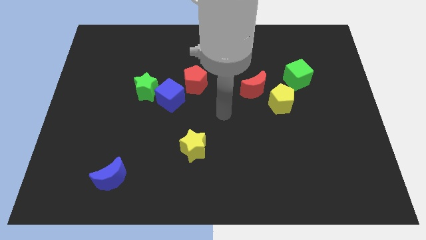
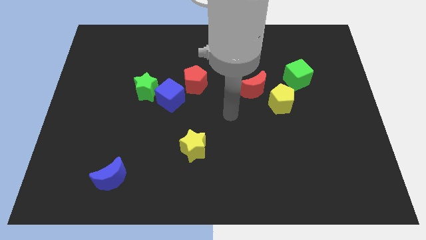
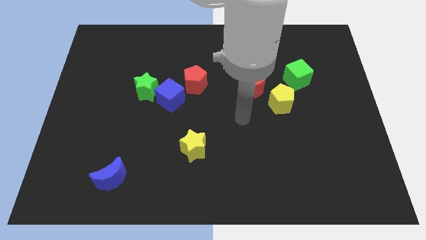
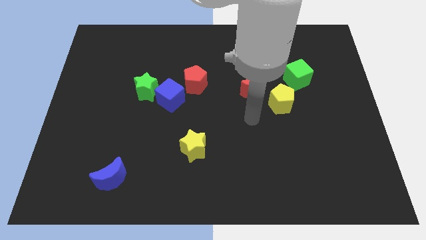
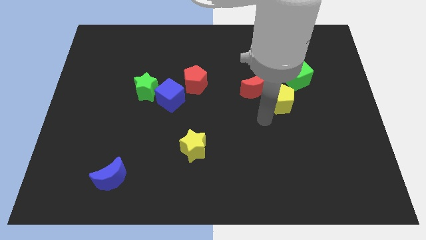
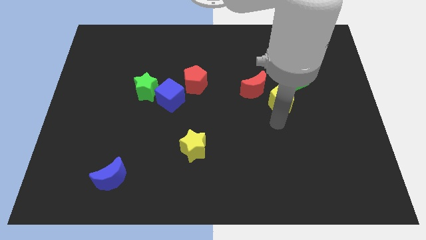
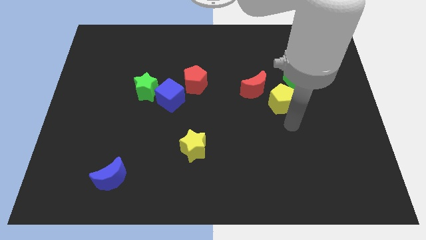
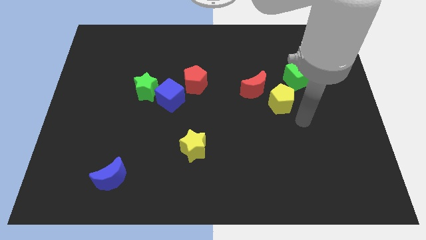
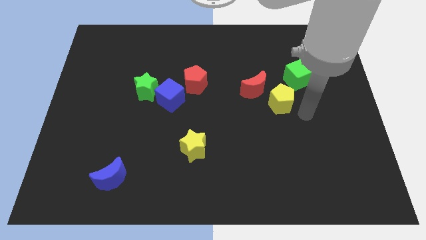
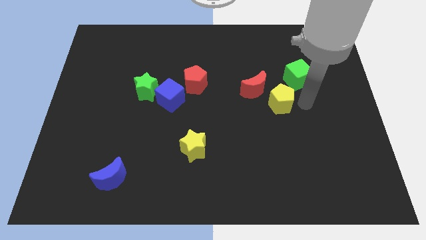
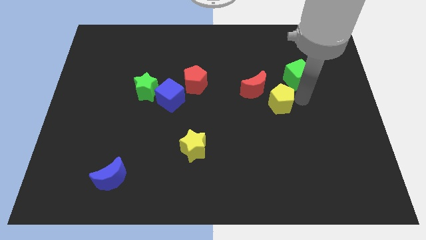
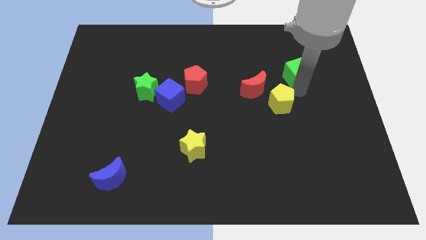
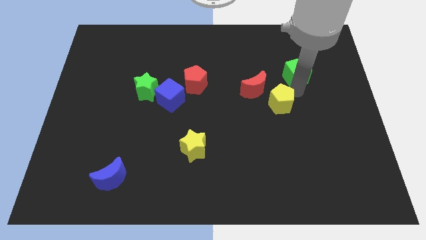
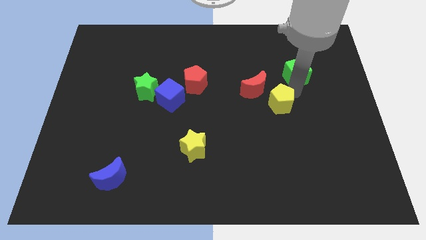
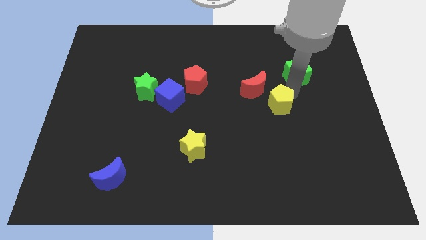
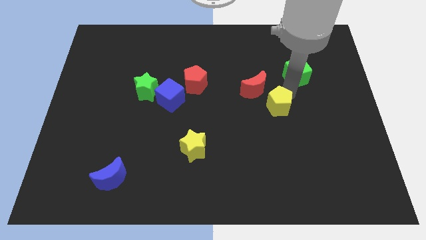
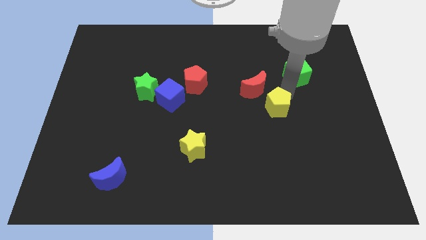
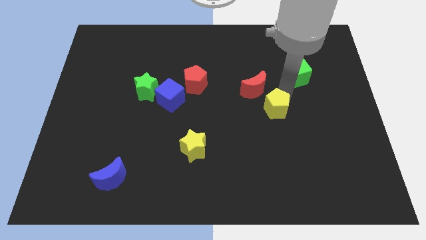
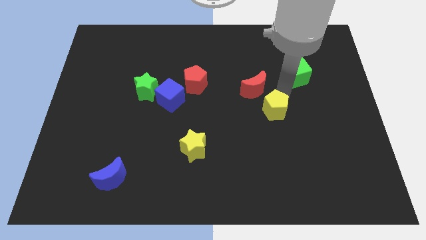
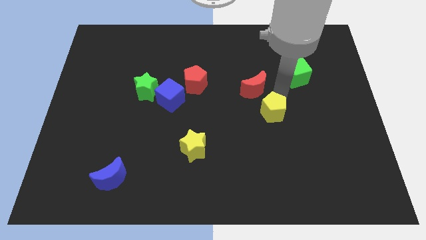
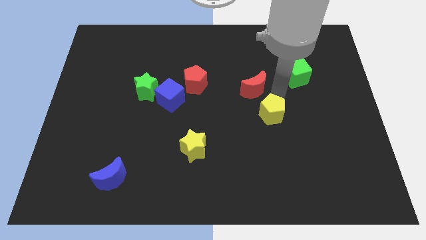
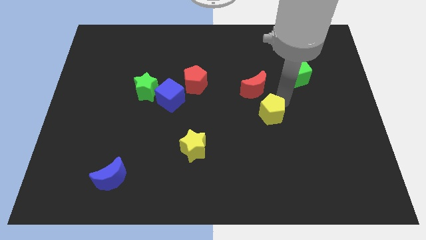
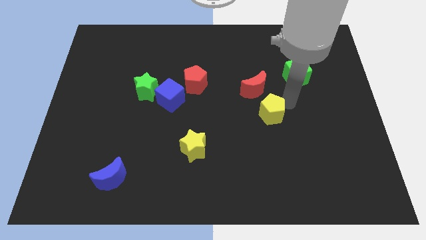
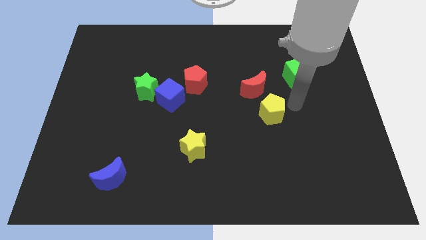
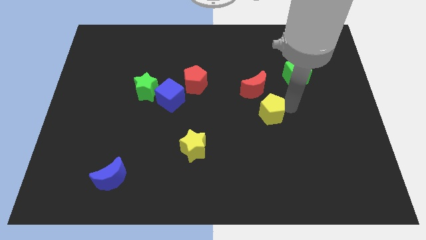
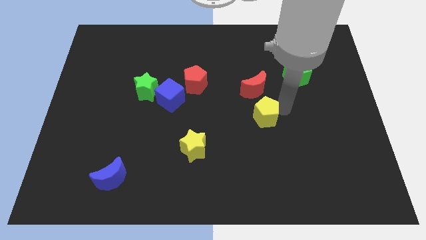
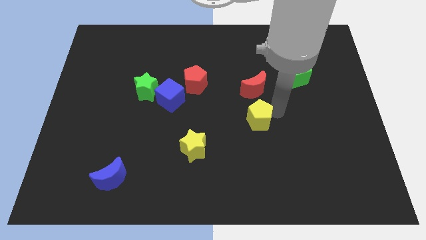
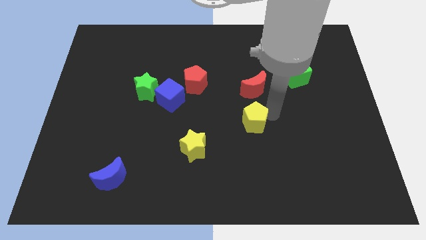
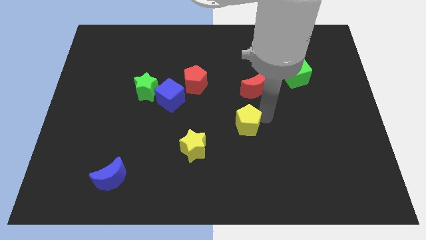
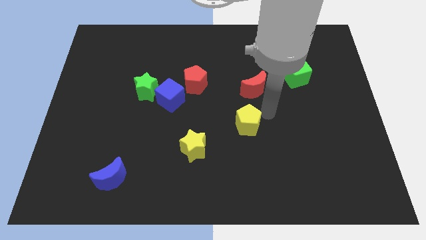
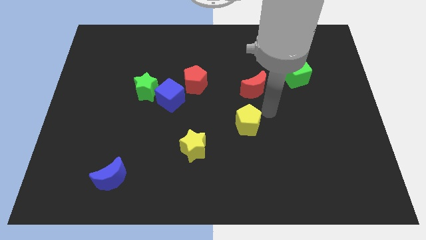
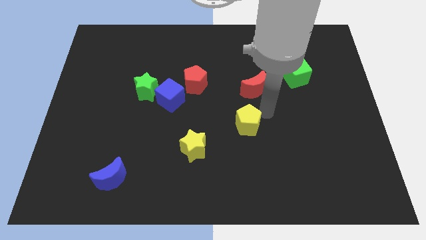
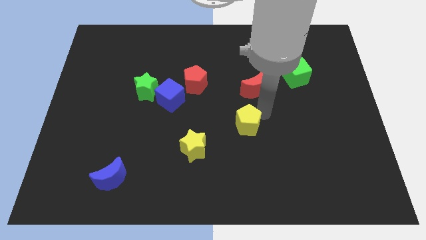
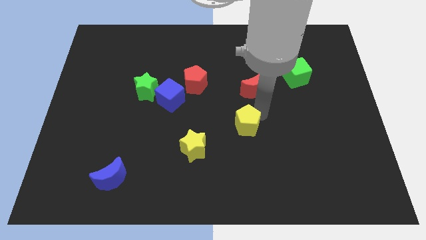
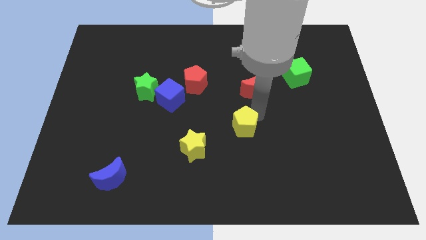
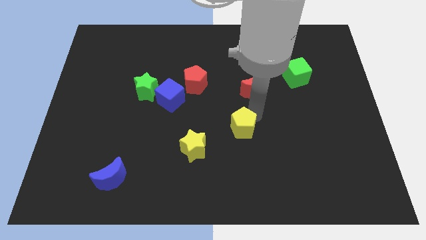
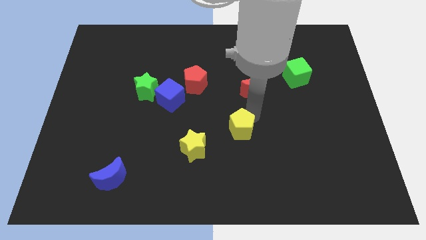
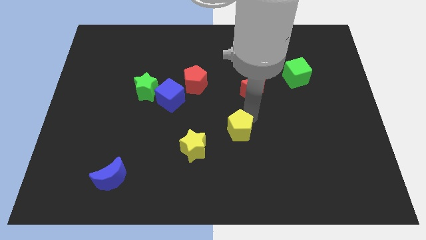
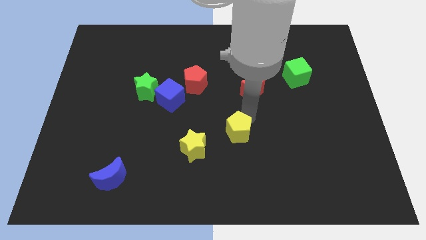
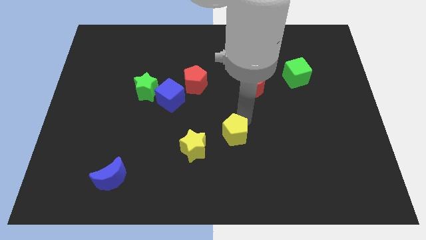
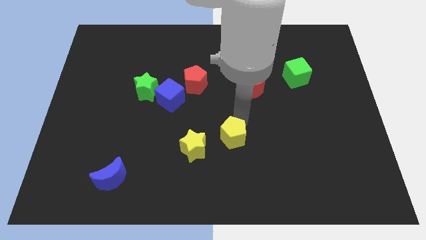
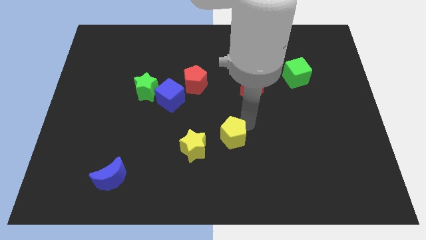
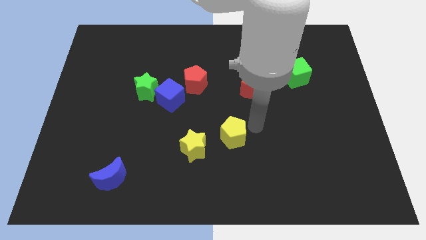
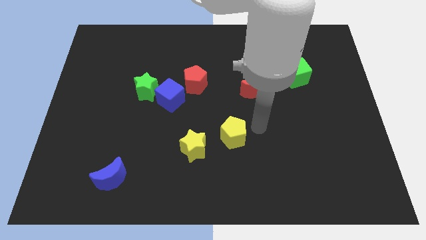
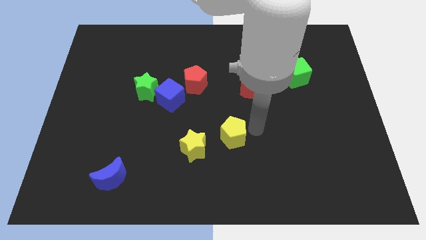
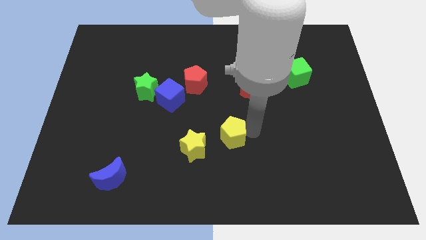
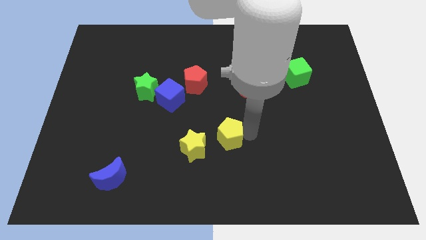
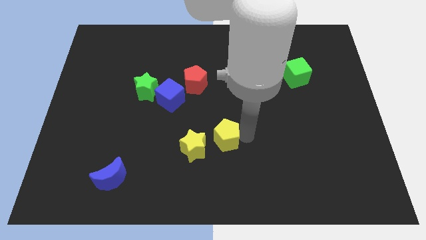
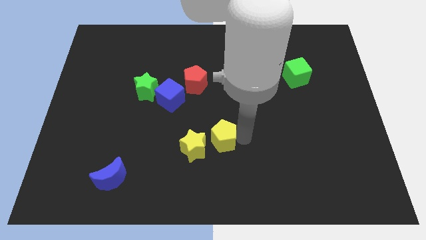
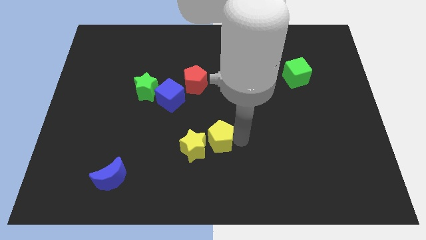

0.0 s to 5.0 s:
move the yellow pentagon towards the yellow star

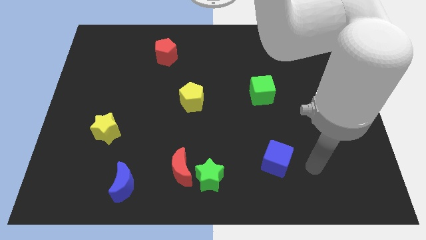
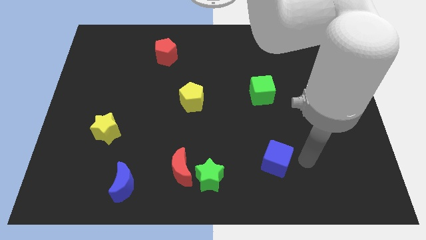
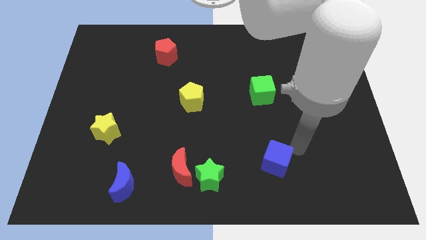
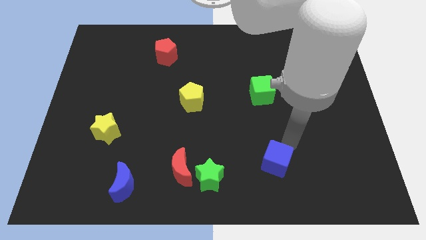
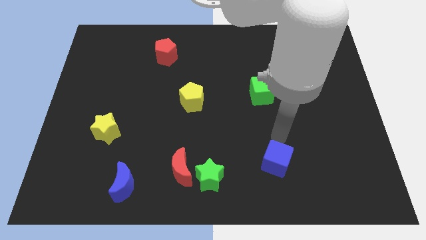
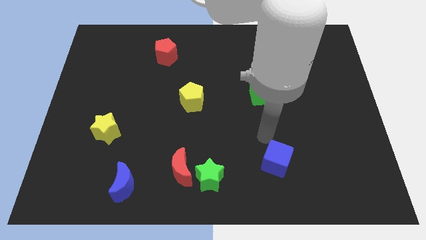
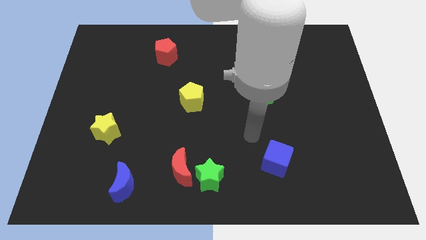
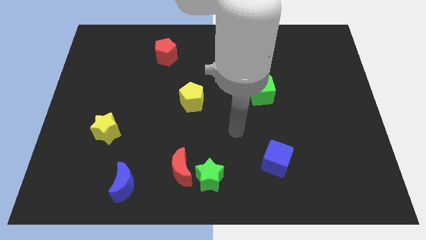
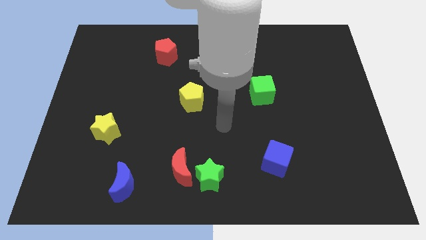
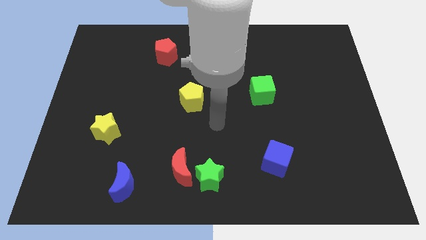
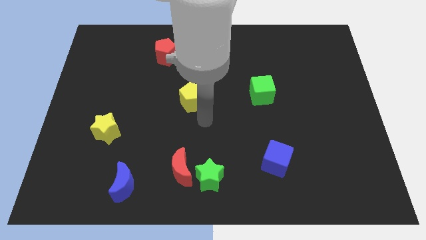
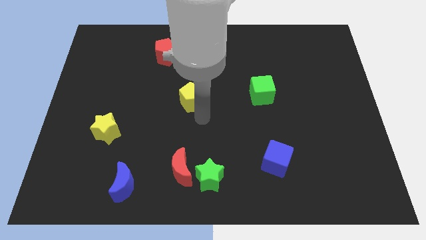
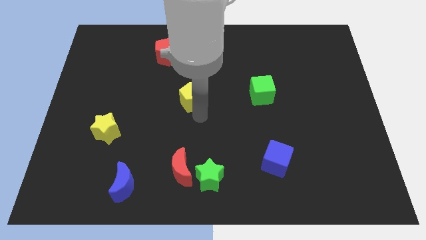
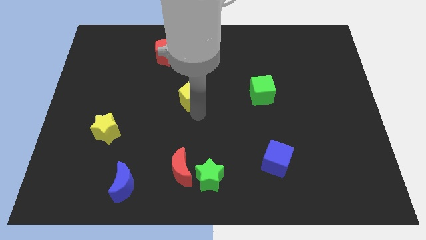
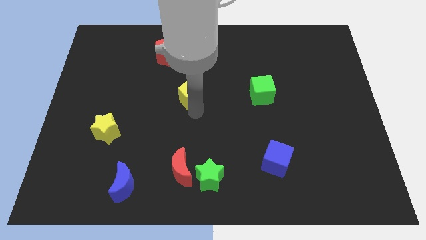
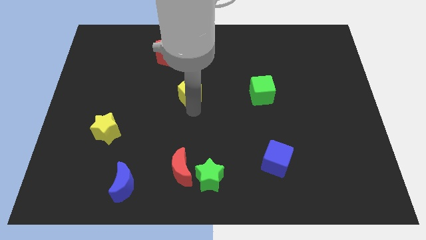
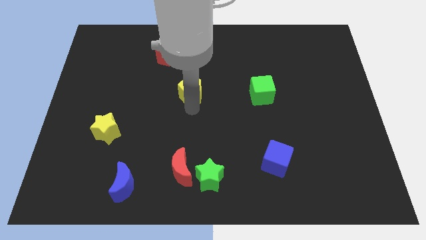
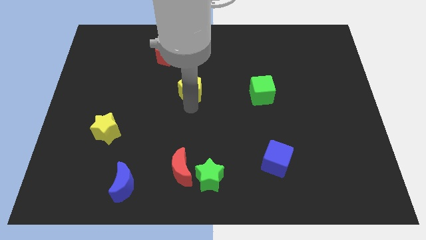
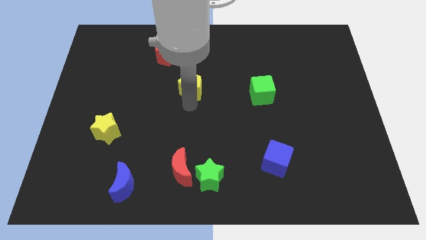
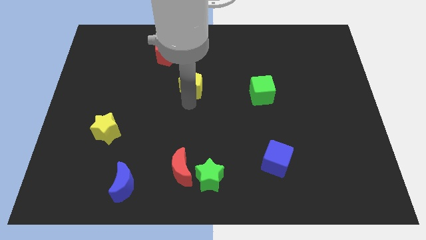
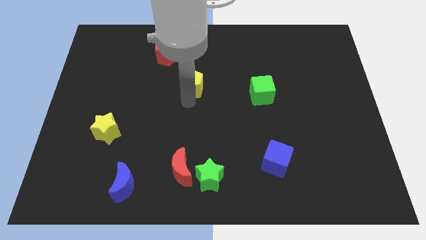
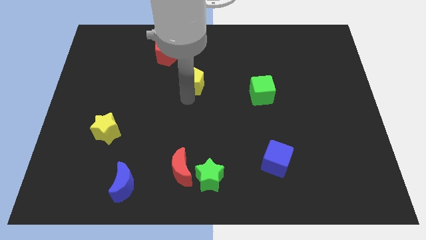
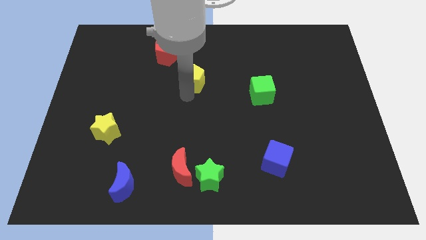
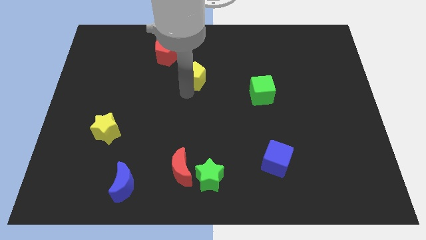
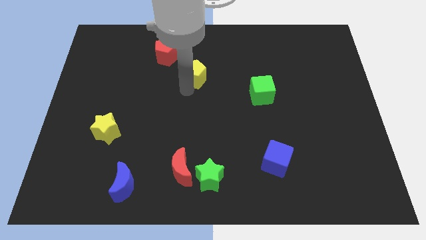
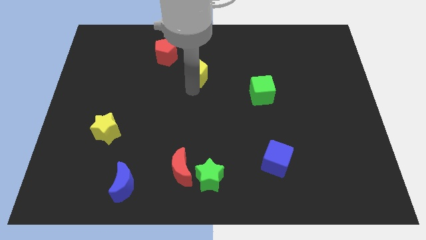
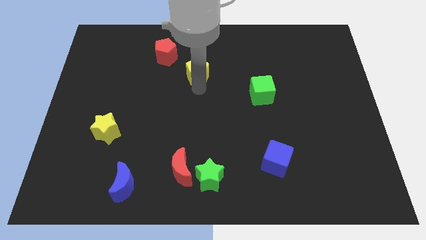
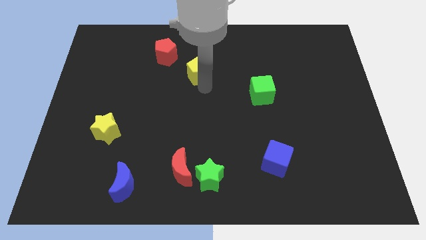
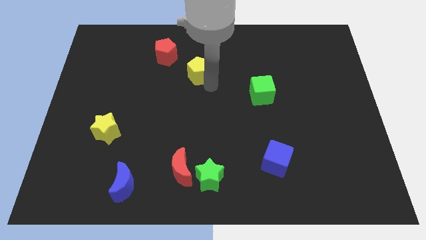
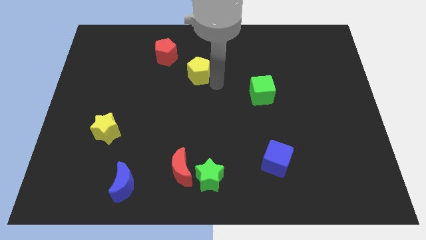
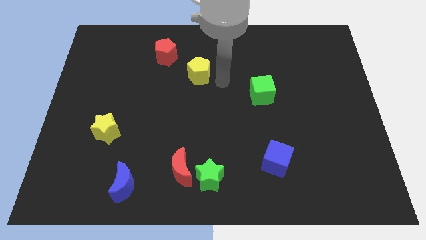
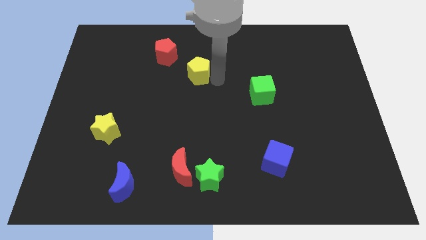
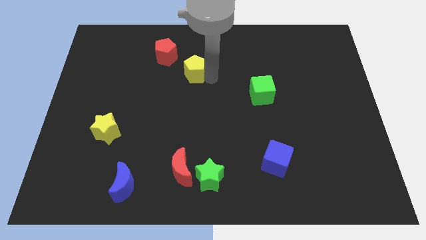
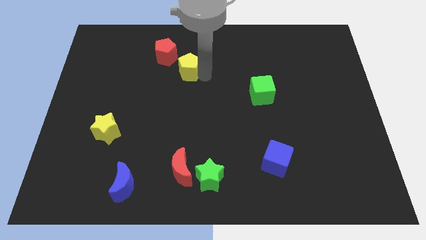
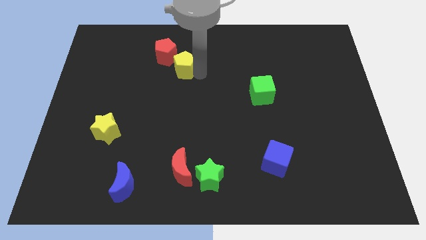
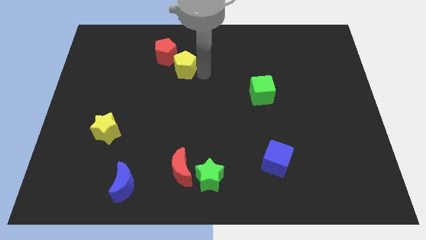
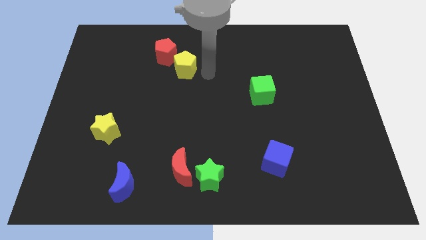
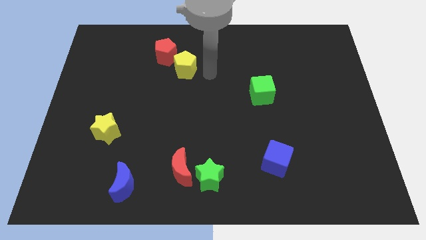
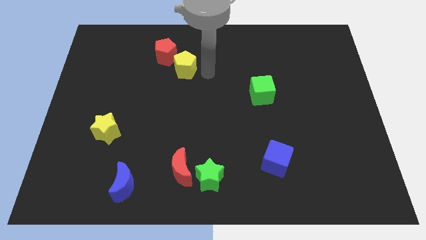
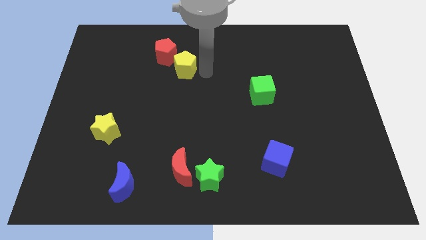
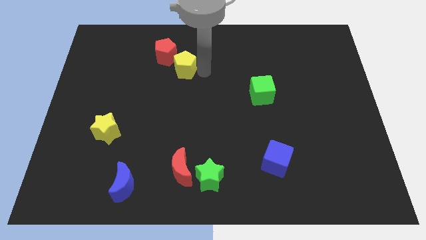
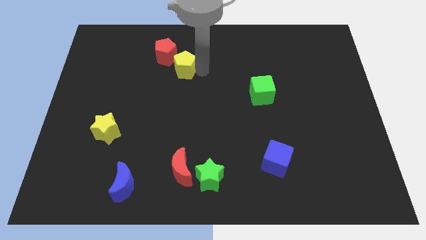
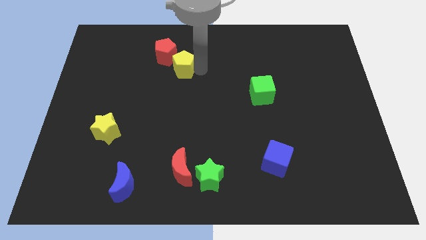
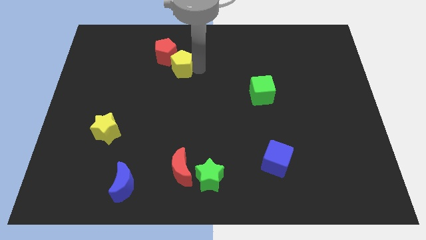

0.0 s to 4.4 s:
push the yellow pentagon next to the red pentagon
